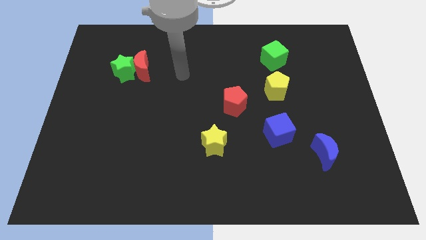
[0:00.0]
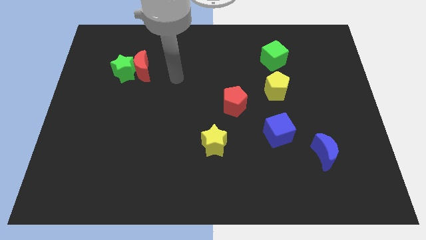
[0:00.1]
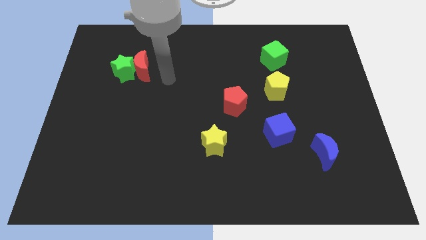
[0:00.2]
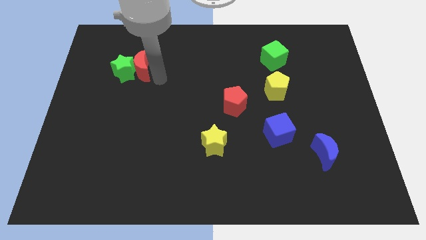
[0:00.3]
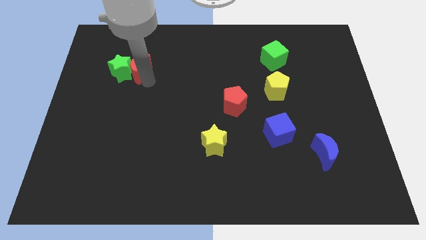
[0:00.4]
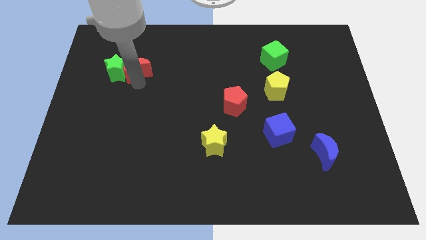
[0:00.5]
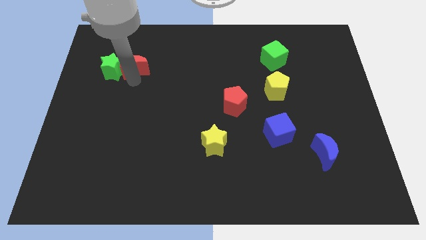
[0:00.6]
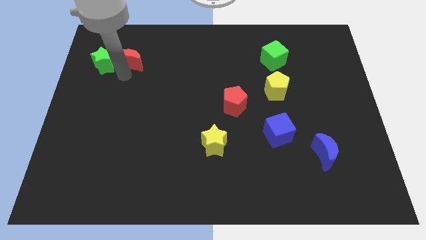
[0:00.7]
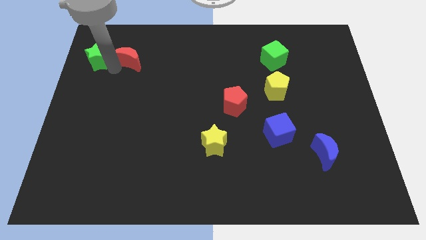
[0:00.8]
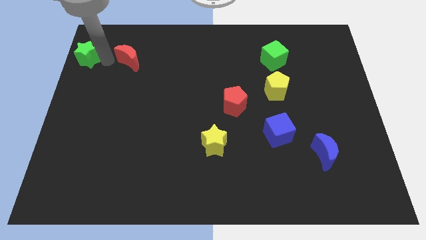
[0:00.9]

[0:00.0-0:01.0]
move the red moon away from the green star

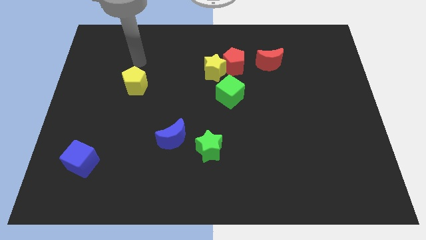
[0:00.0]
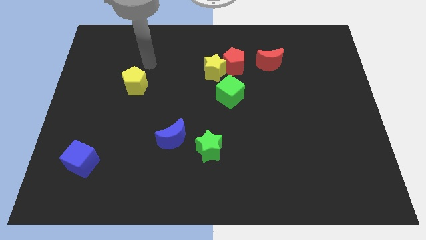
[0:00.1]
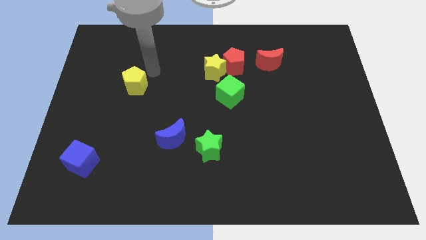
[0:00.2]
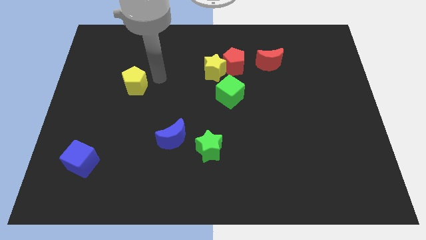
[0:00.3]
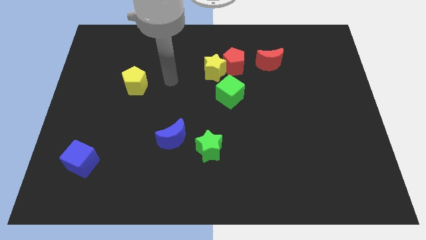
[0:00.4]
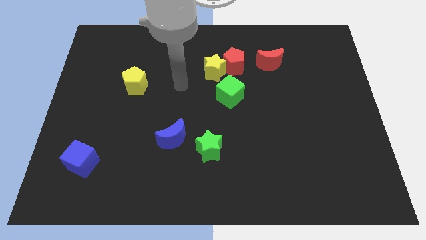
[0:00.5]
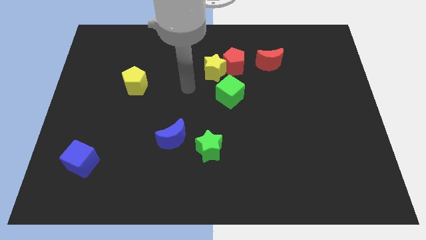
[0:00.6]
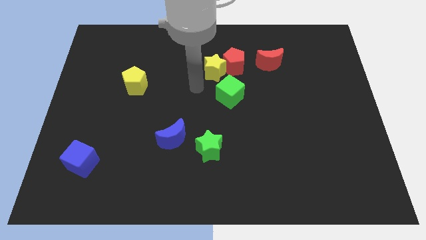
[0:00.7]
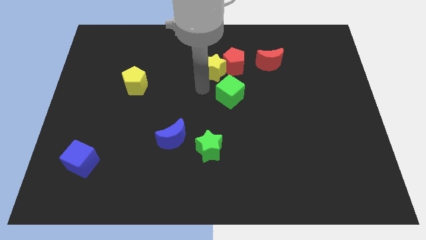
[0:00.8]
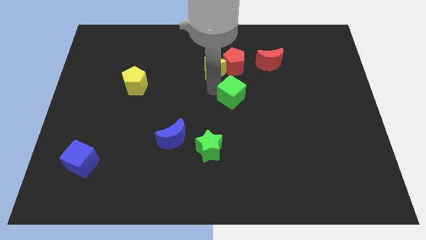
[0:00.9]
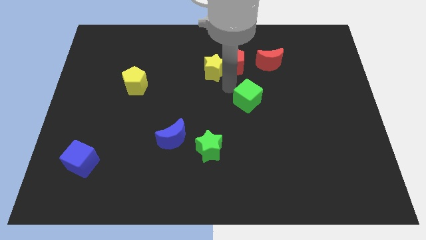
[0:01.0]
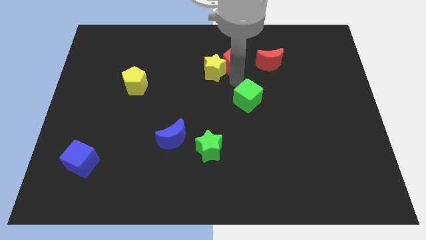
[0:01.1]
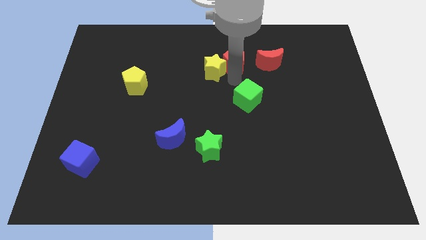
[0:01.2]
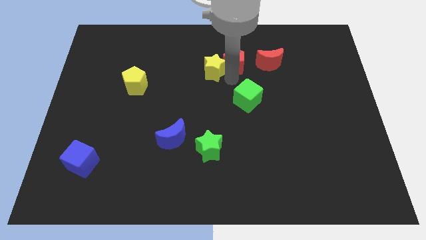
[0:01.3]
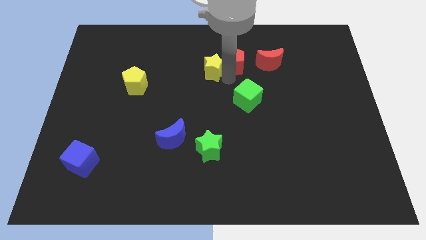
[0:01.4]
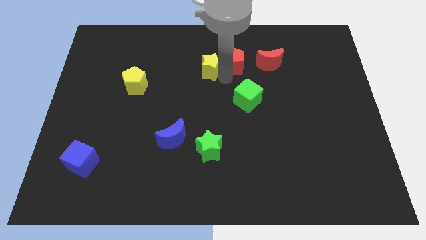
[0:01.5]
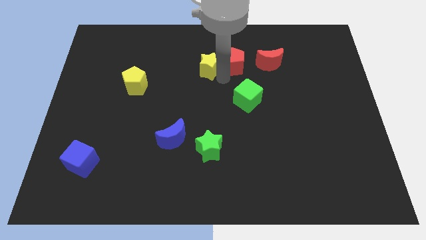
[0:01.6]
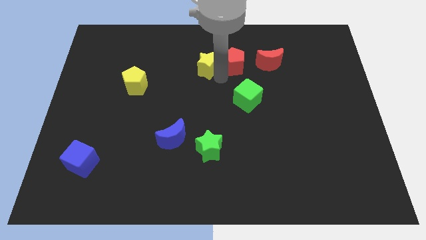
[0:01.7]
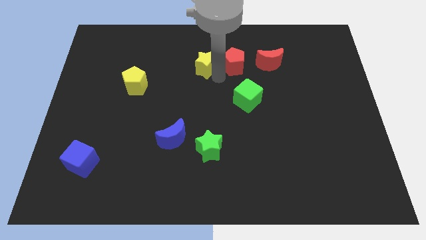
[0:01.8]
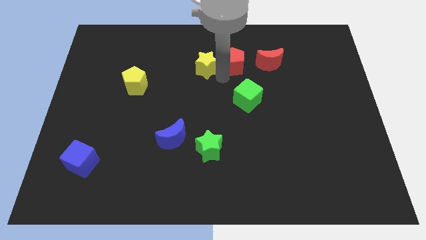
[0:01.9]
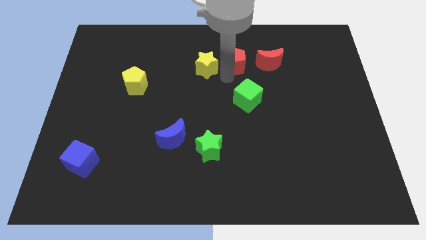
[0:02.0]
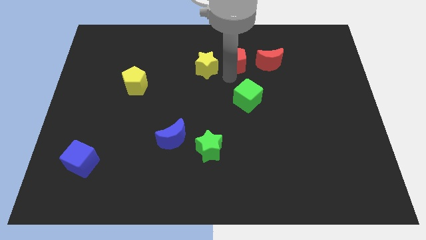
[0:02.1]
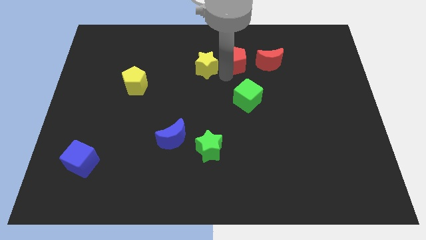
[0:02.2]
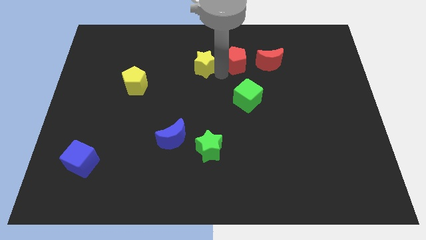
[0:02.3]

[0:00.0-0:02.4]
move the yellow star away from the red pentagon and green cube

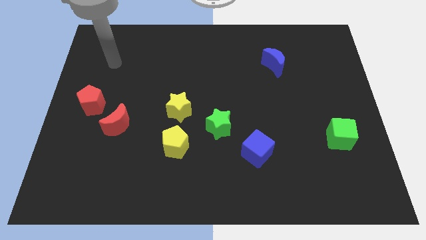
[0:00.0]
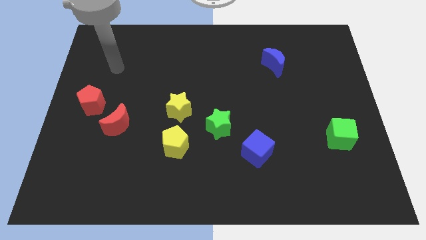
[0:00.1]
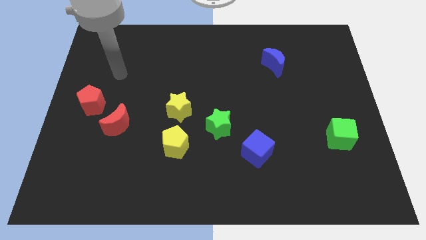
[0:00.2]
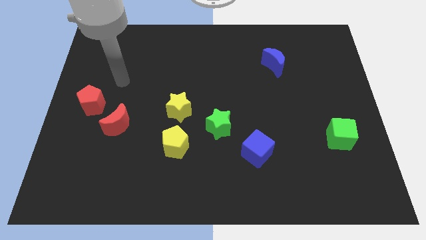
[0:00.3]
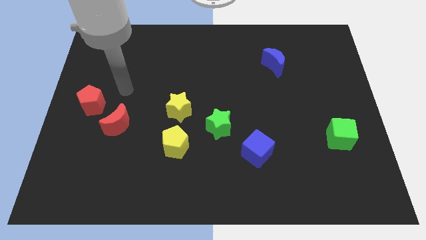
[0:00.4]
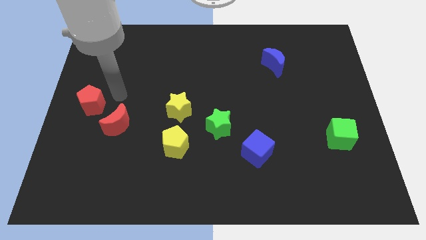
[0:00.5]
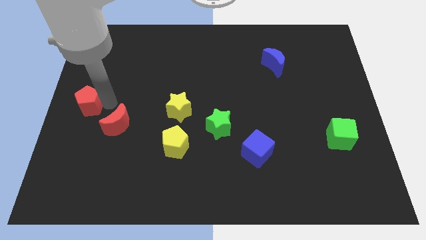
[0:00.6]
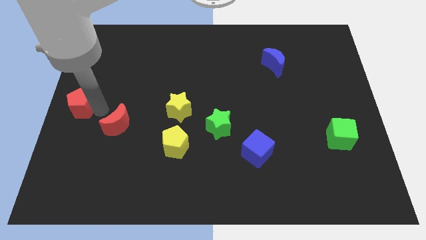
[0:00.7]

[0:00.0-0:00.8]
pull the red moon apart from the red pentagon

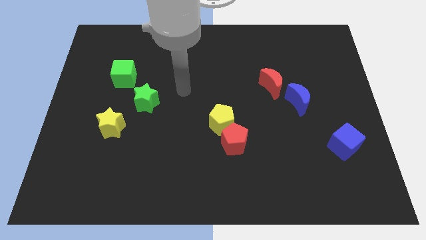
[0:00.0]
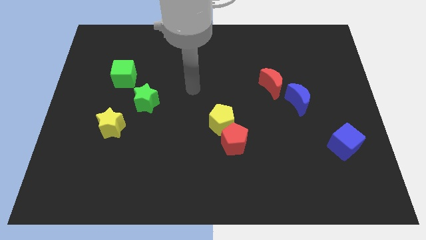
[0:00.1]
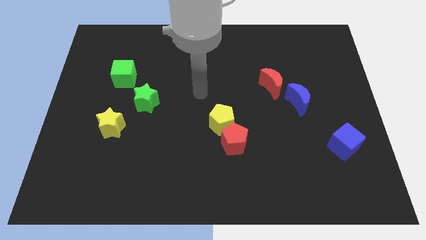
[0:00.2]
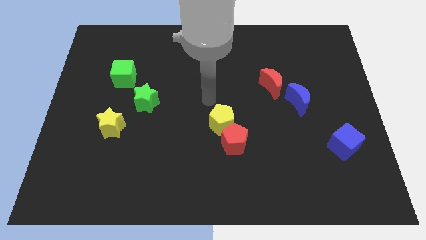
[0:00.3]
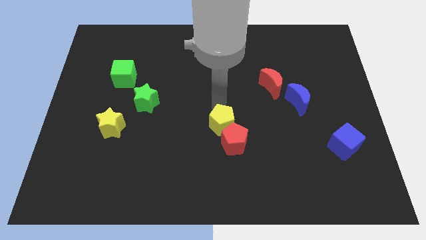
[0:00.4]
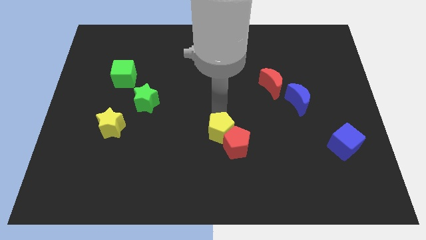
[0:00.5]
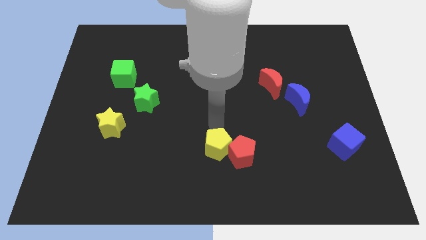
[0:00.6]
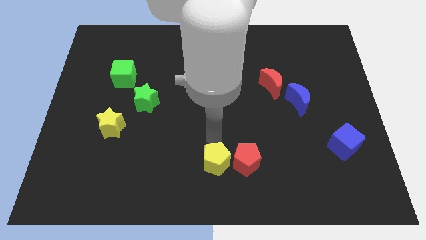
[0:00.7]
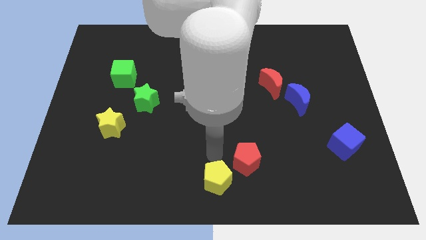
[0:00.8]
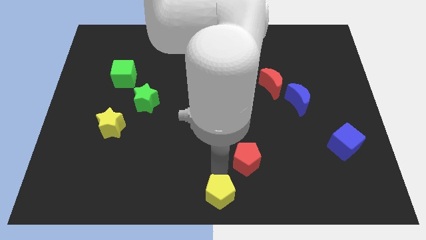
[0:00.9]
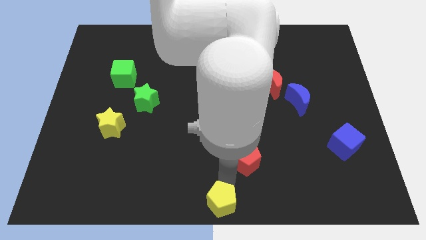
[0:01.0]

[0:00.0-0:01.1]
pull the red pentagon apart from the yellow pentagon

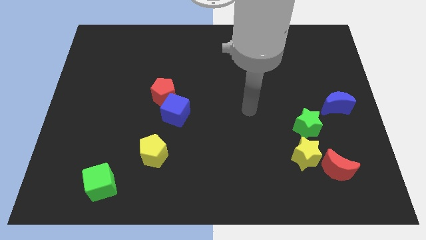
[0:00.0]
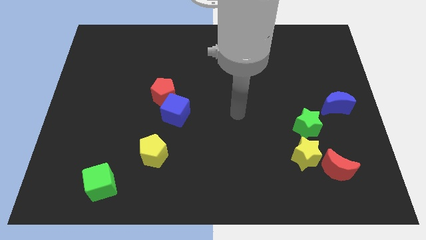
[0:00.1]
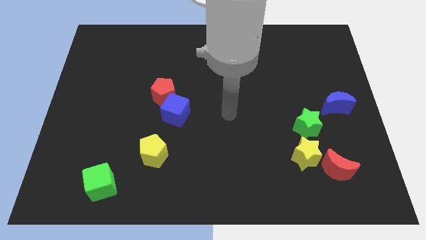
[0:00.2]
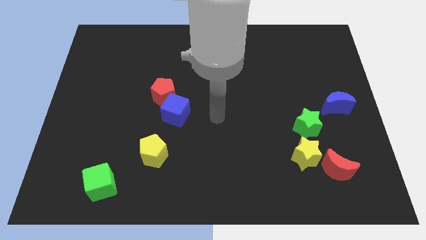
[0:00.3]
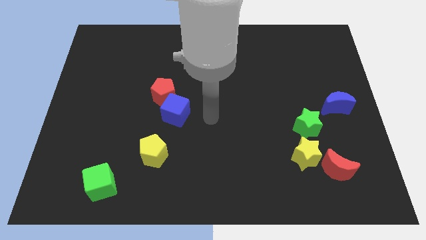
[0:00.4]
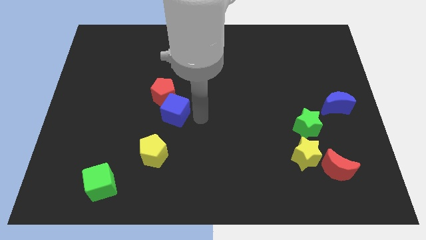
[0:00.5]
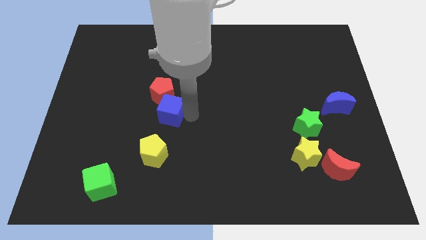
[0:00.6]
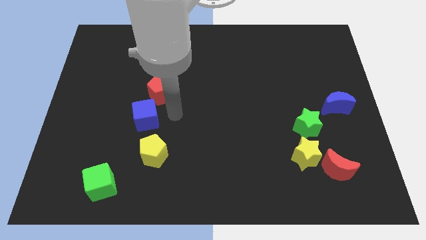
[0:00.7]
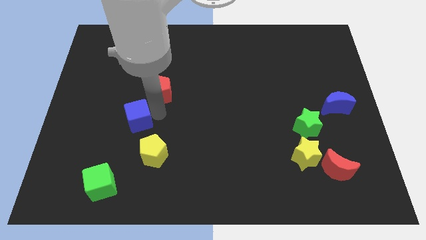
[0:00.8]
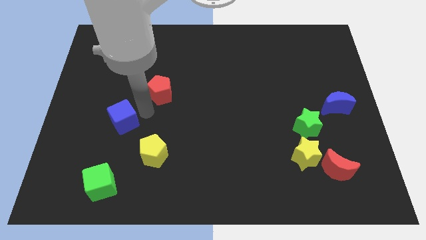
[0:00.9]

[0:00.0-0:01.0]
pull the red pentagon apart from the blue cube

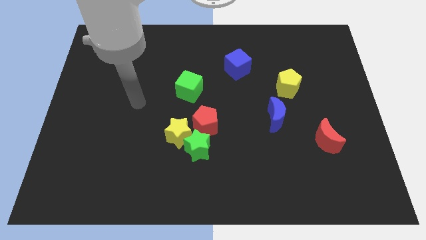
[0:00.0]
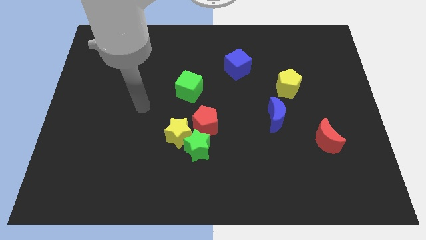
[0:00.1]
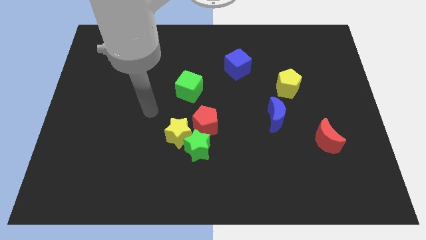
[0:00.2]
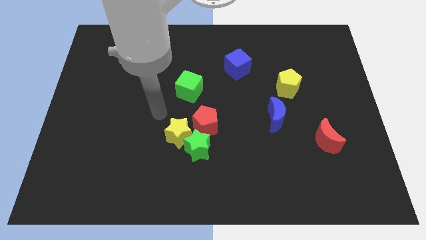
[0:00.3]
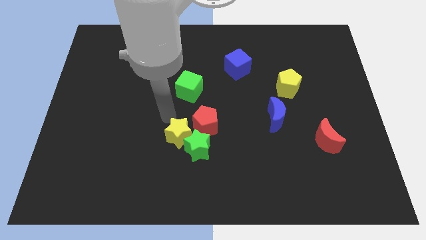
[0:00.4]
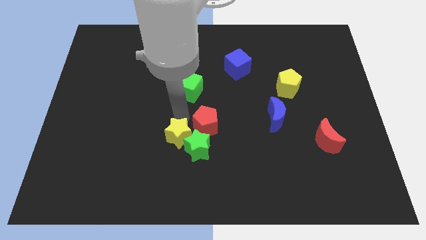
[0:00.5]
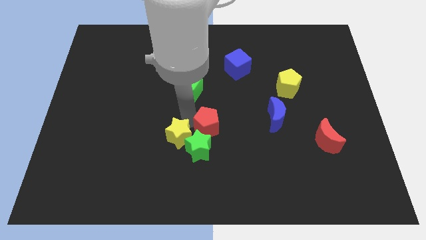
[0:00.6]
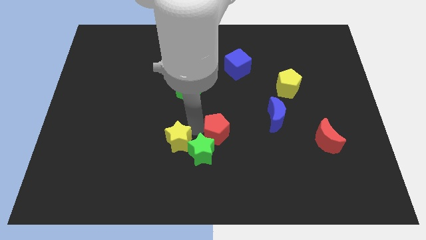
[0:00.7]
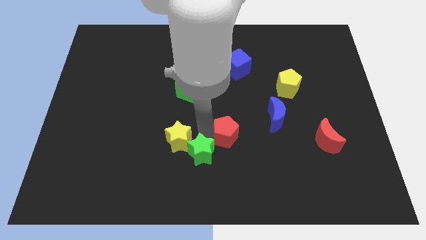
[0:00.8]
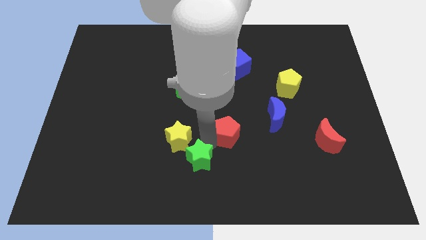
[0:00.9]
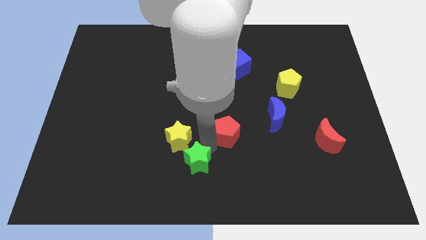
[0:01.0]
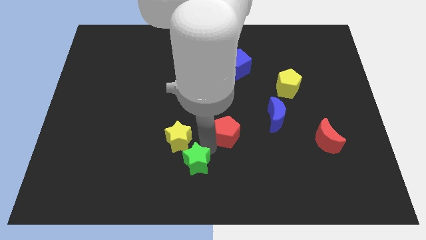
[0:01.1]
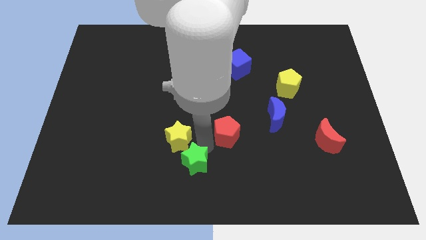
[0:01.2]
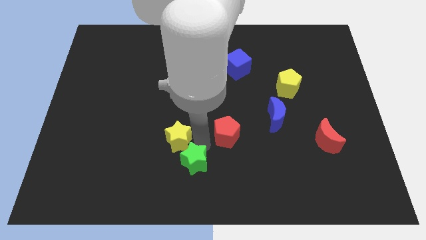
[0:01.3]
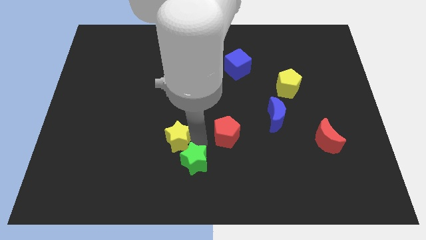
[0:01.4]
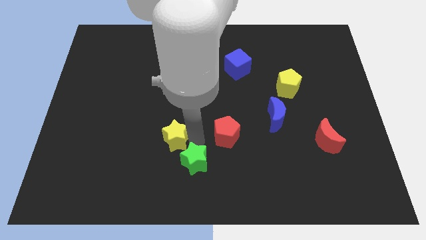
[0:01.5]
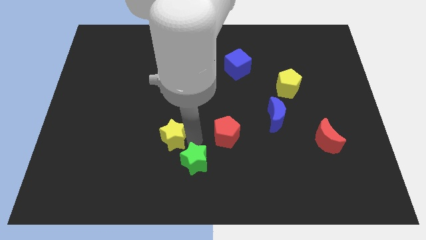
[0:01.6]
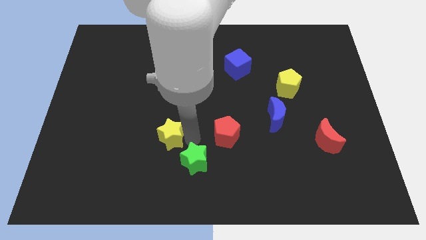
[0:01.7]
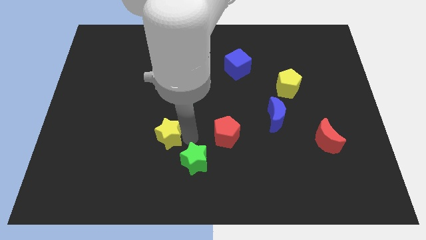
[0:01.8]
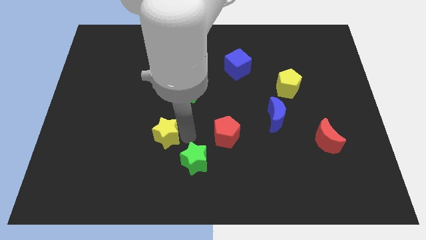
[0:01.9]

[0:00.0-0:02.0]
pull the yellow star apart from the green star and red pentagon

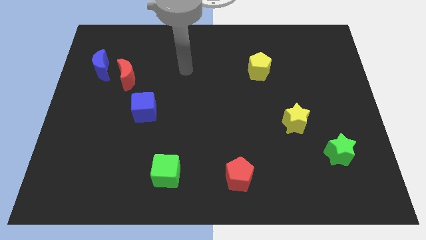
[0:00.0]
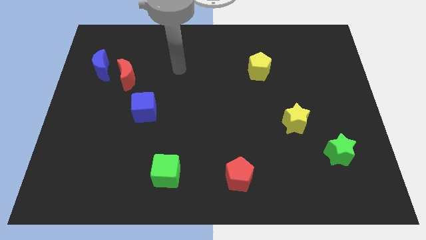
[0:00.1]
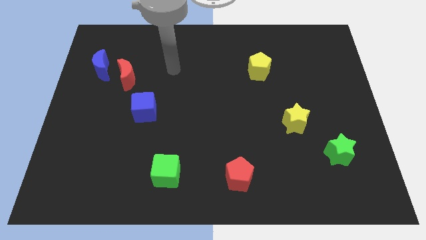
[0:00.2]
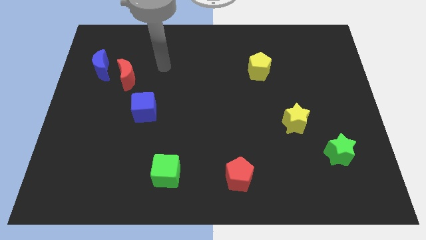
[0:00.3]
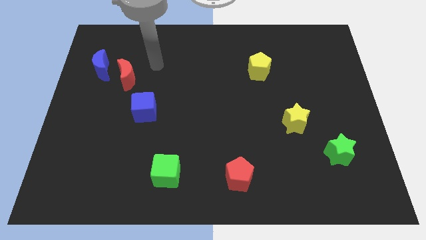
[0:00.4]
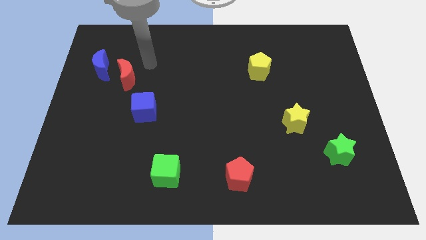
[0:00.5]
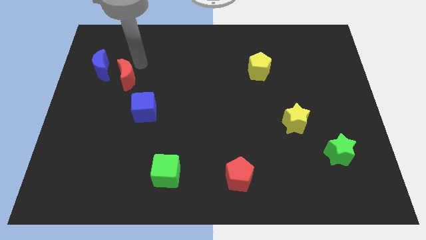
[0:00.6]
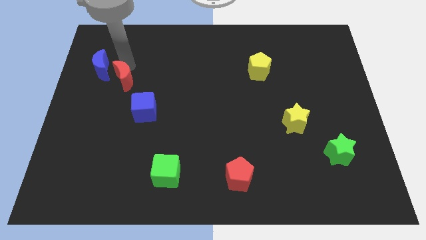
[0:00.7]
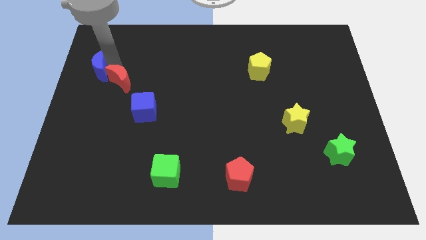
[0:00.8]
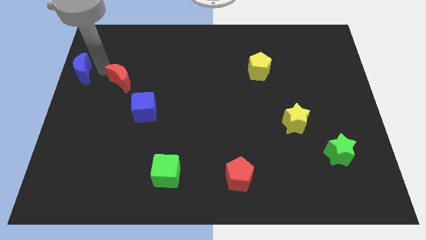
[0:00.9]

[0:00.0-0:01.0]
separate the red moon from the blue moon
